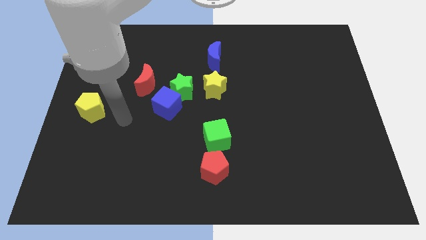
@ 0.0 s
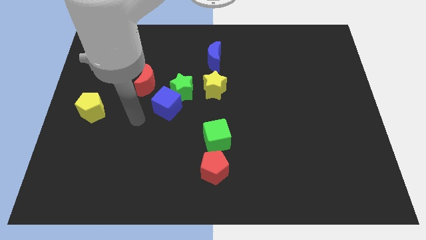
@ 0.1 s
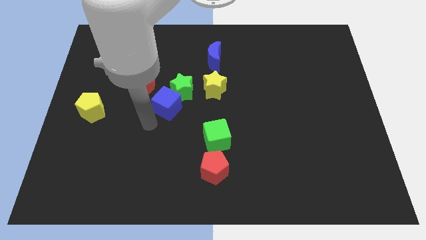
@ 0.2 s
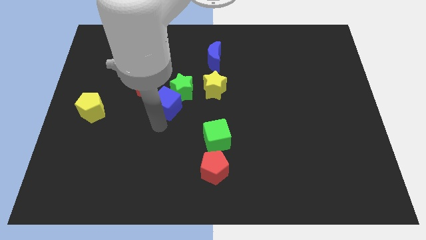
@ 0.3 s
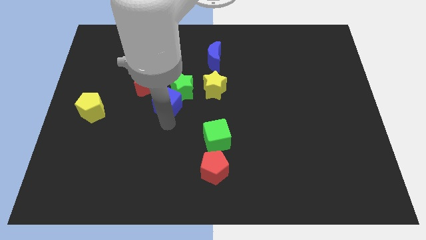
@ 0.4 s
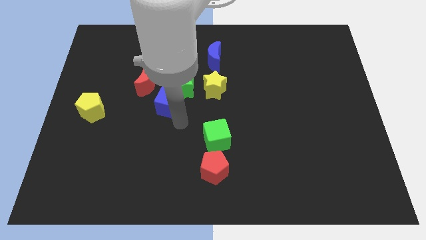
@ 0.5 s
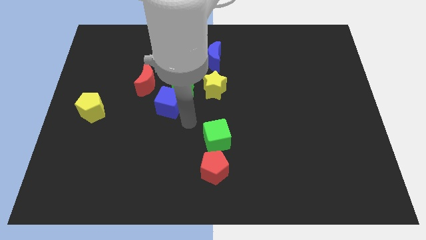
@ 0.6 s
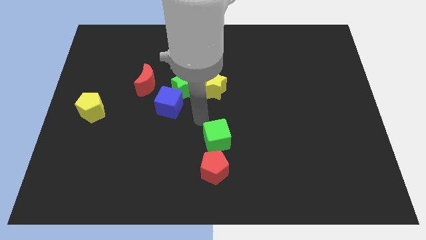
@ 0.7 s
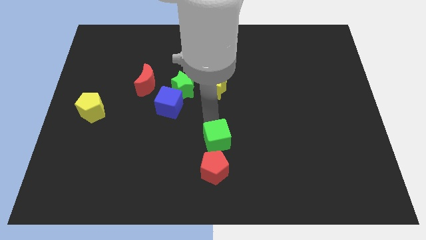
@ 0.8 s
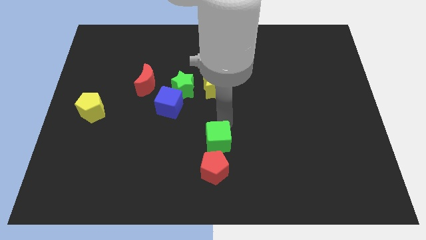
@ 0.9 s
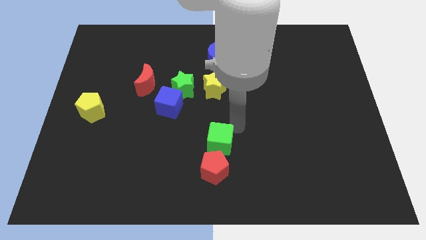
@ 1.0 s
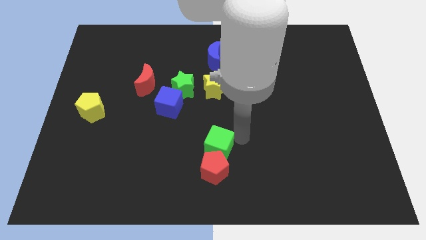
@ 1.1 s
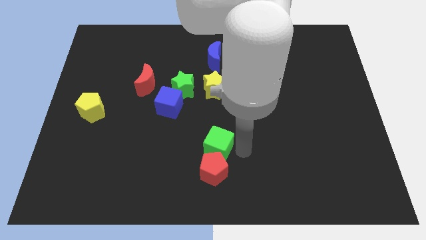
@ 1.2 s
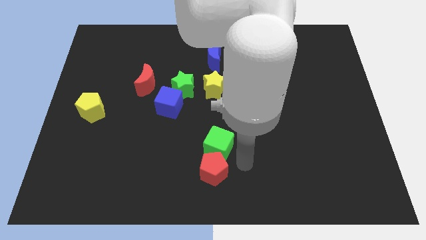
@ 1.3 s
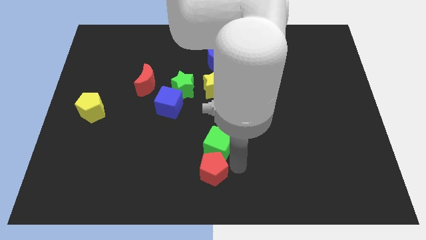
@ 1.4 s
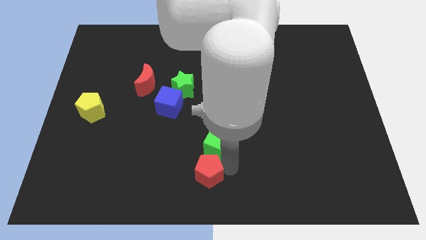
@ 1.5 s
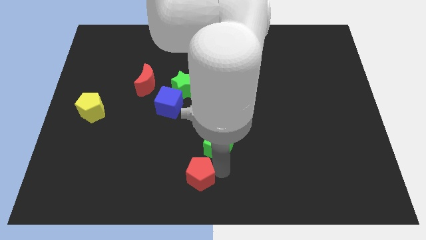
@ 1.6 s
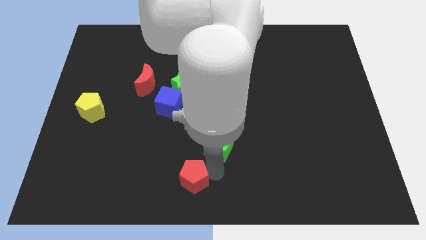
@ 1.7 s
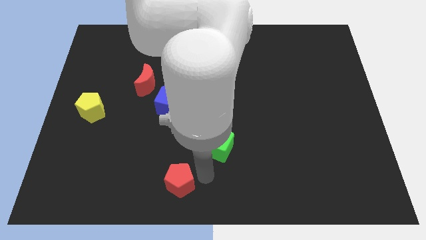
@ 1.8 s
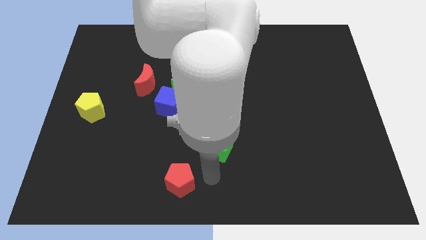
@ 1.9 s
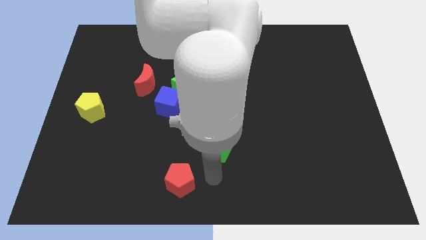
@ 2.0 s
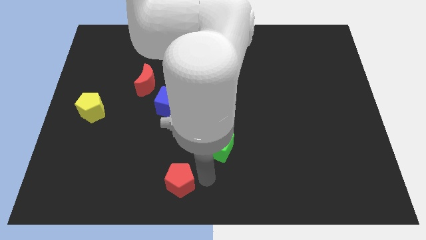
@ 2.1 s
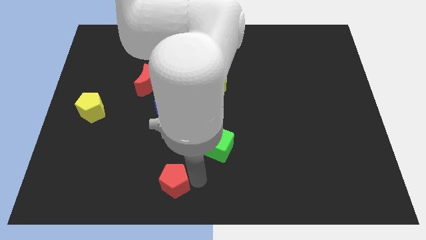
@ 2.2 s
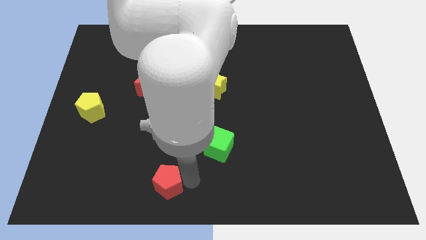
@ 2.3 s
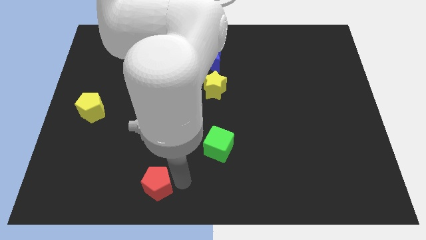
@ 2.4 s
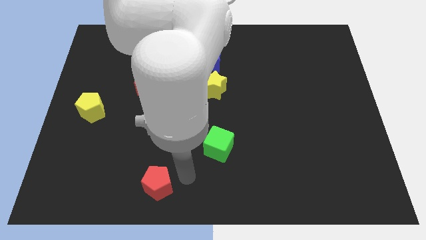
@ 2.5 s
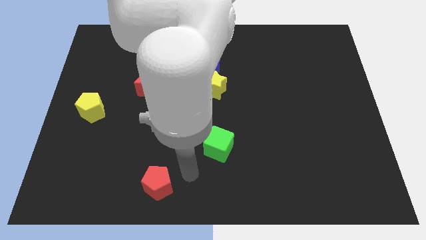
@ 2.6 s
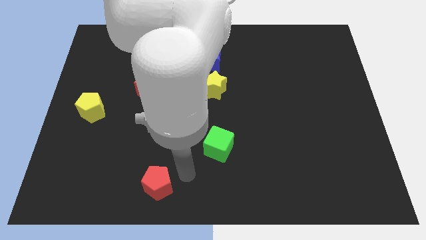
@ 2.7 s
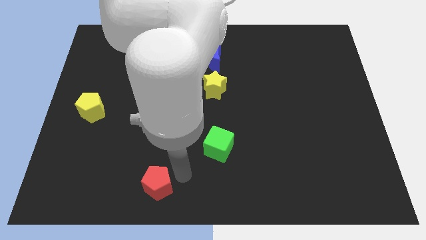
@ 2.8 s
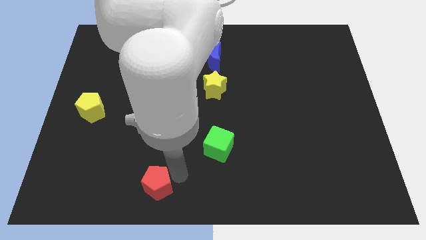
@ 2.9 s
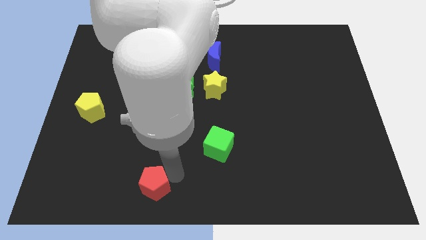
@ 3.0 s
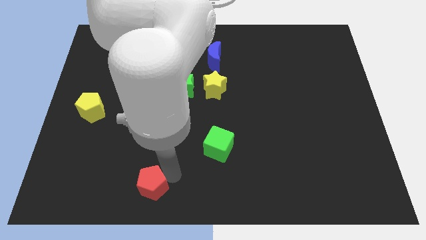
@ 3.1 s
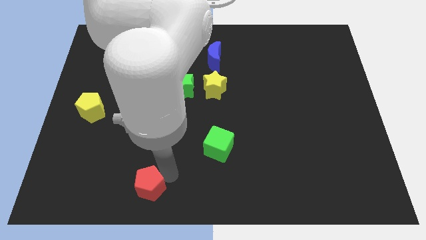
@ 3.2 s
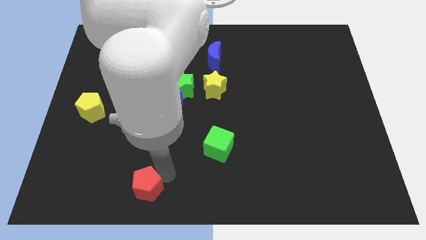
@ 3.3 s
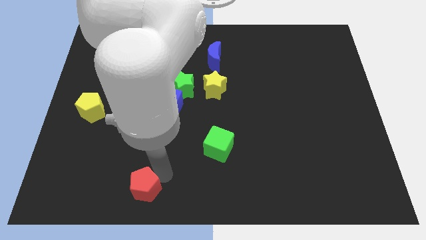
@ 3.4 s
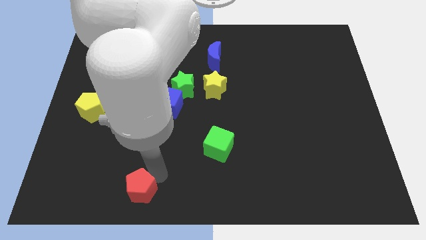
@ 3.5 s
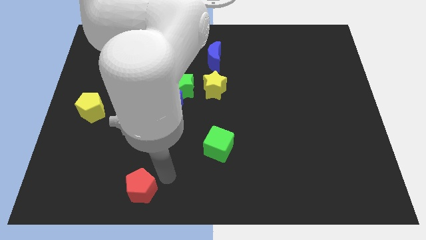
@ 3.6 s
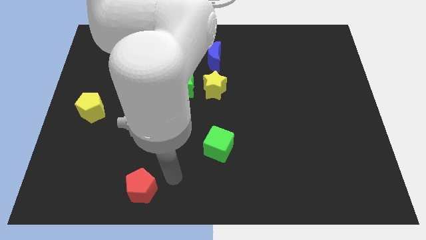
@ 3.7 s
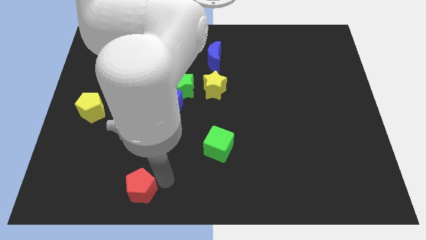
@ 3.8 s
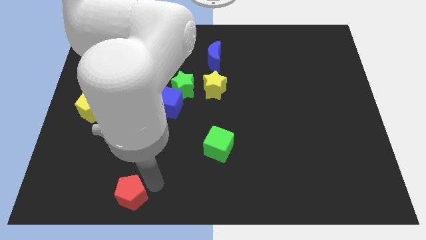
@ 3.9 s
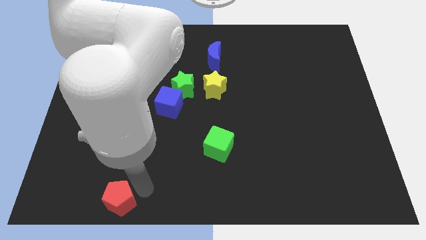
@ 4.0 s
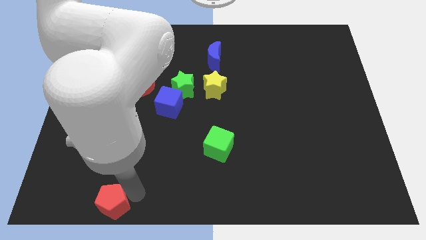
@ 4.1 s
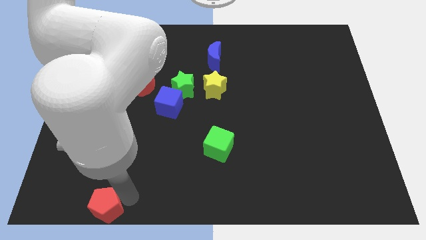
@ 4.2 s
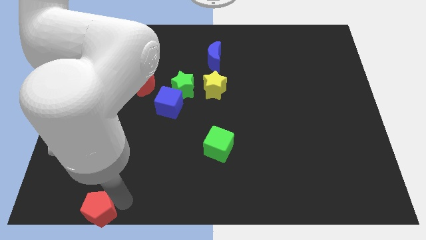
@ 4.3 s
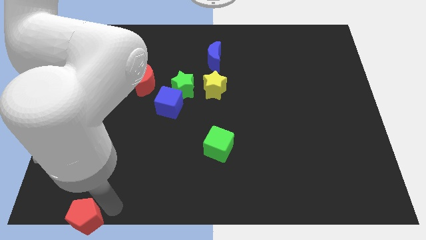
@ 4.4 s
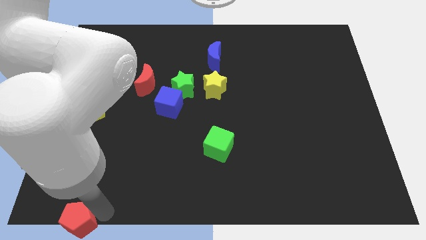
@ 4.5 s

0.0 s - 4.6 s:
push the red pentagon to the lower left corner

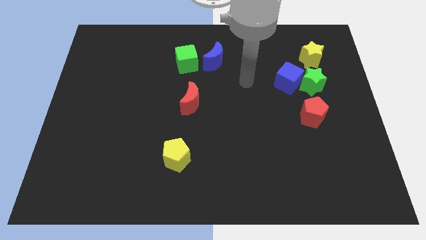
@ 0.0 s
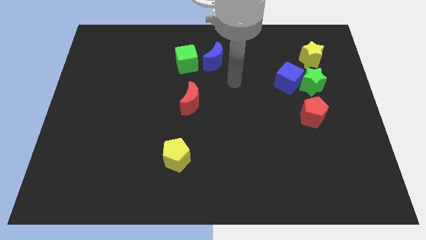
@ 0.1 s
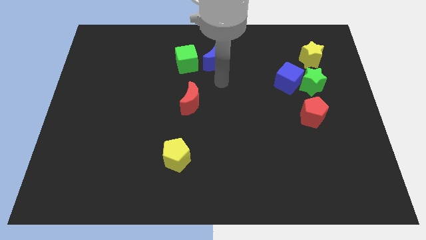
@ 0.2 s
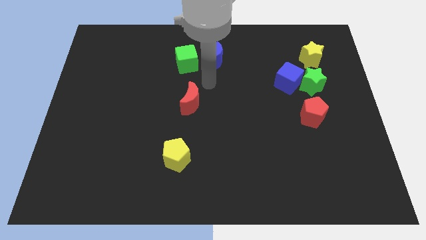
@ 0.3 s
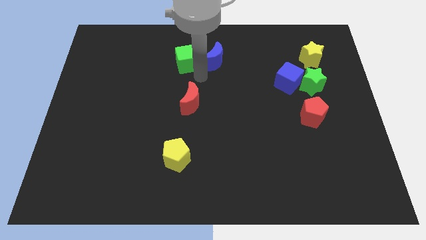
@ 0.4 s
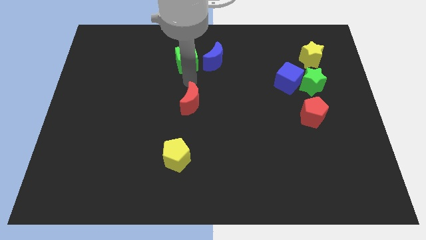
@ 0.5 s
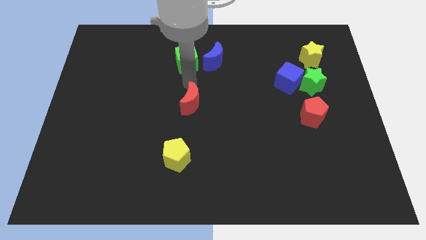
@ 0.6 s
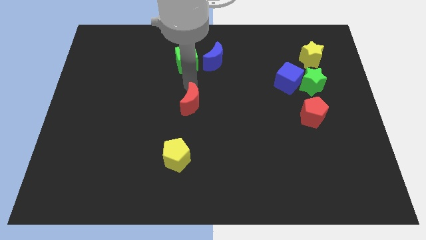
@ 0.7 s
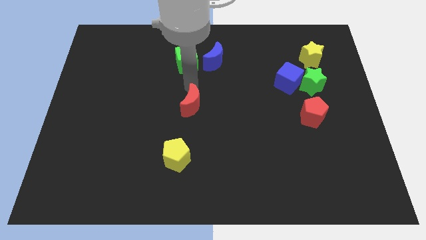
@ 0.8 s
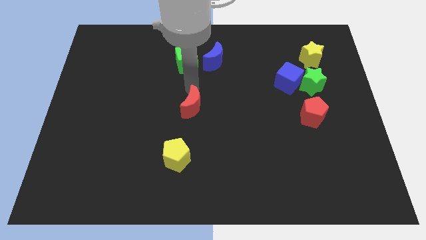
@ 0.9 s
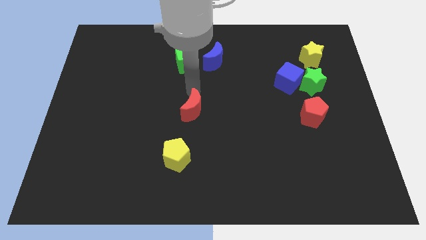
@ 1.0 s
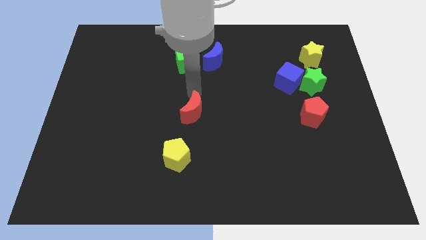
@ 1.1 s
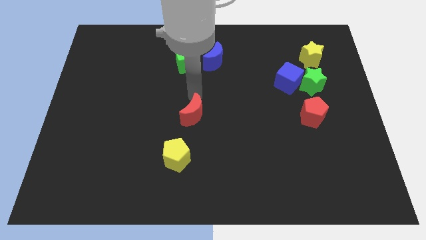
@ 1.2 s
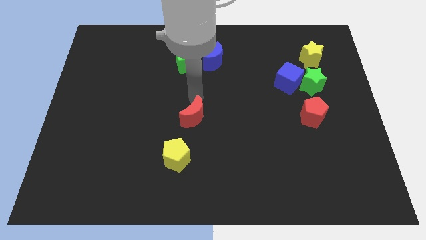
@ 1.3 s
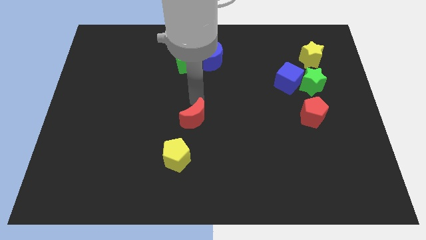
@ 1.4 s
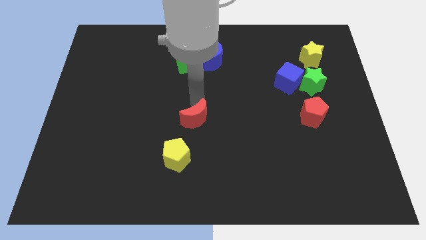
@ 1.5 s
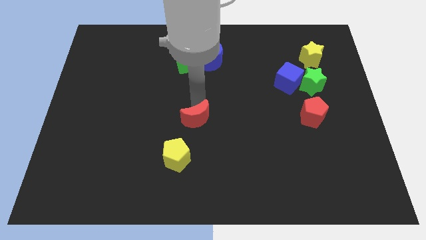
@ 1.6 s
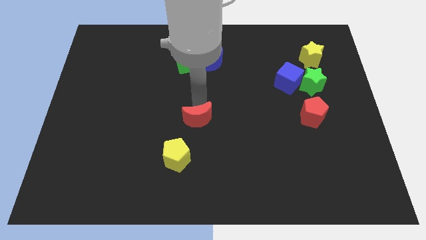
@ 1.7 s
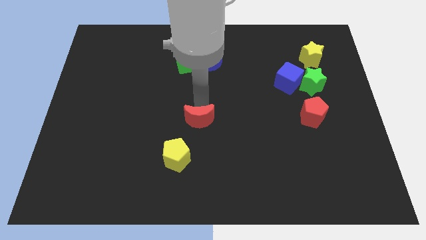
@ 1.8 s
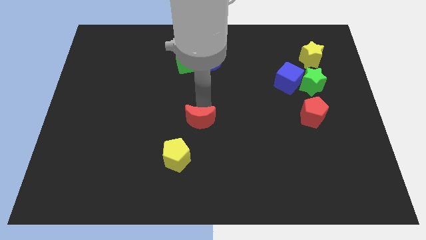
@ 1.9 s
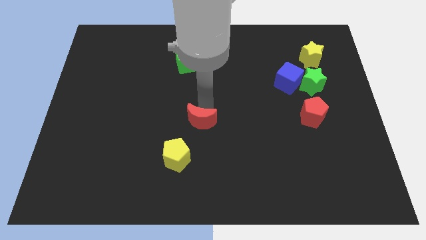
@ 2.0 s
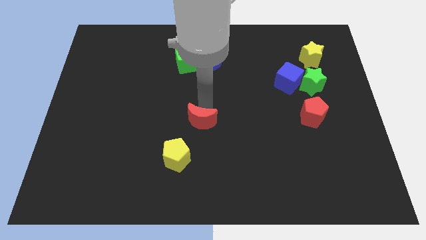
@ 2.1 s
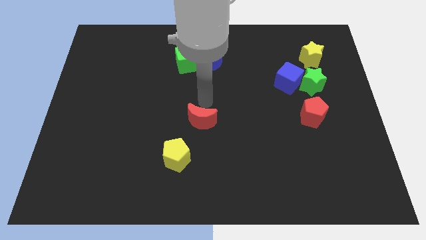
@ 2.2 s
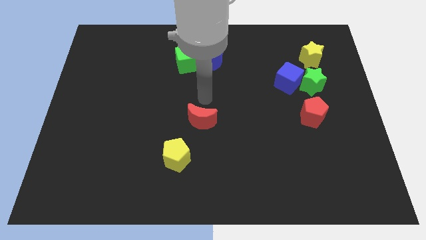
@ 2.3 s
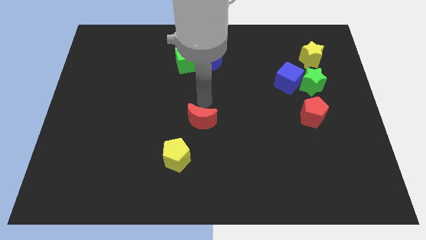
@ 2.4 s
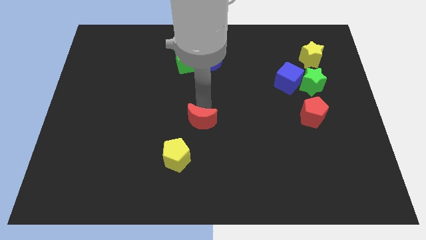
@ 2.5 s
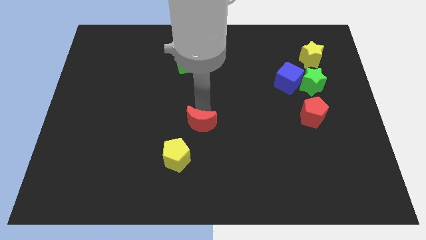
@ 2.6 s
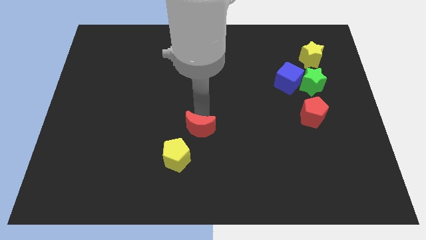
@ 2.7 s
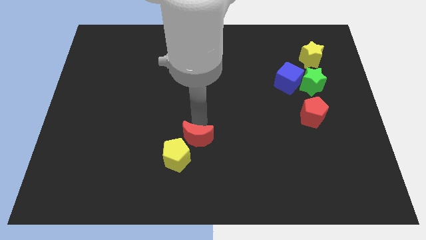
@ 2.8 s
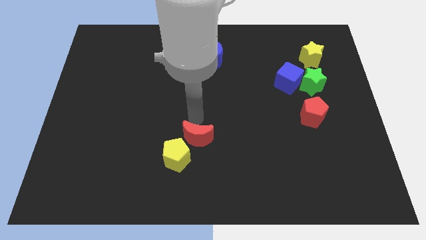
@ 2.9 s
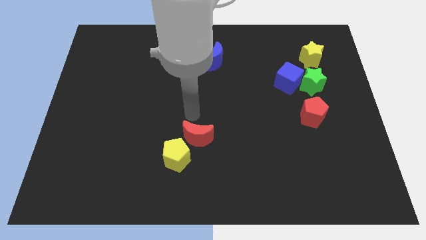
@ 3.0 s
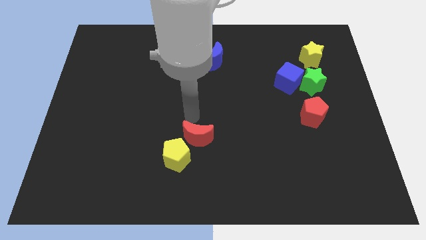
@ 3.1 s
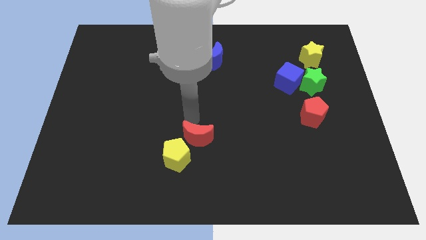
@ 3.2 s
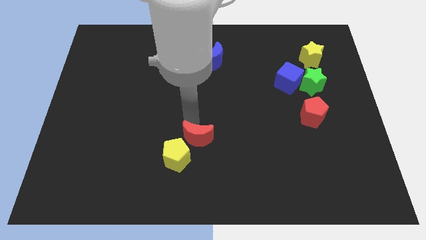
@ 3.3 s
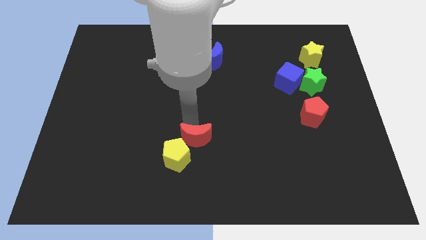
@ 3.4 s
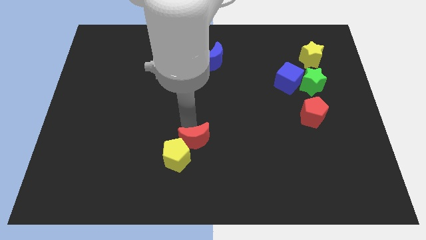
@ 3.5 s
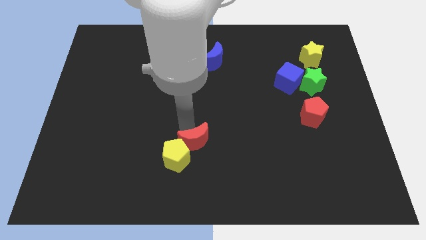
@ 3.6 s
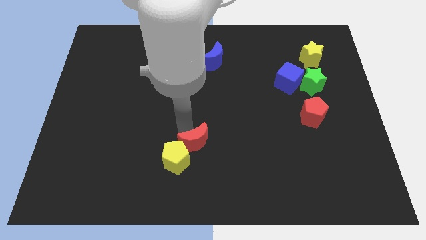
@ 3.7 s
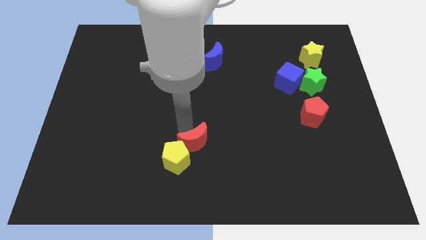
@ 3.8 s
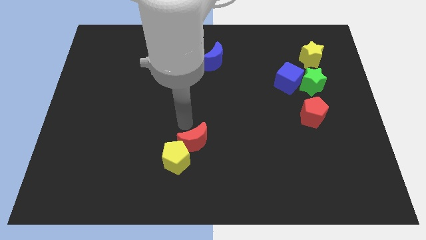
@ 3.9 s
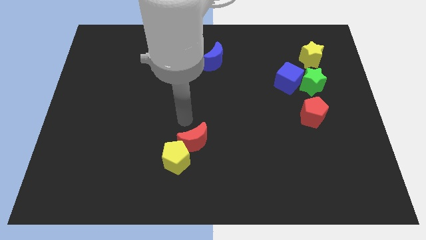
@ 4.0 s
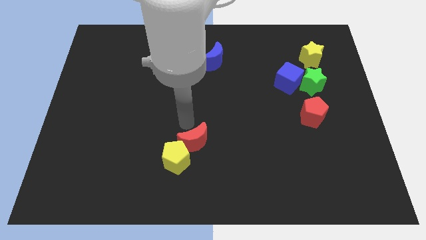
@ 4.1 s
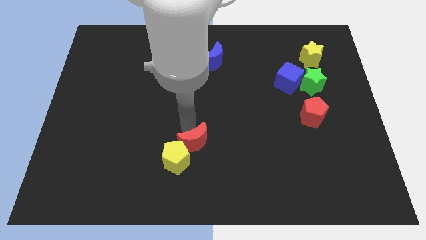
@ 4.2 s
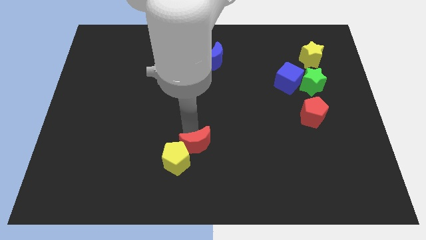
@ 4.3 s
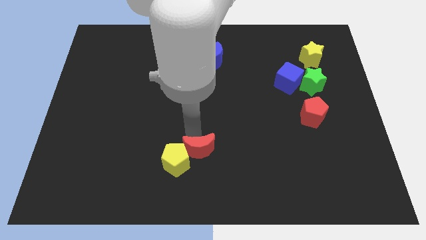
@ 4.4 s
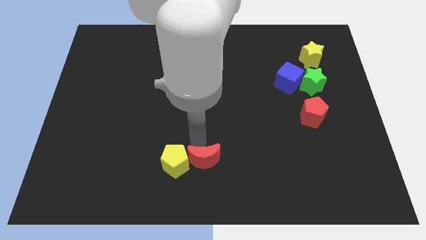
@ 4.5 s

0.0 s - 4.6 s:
put the red moon to the bottom
